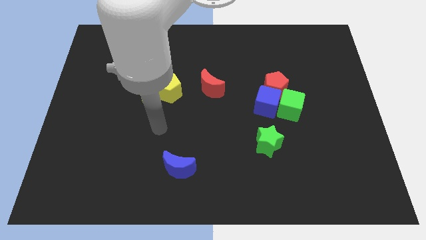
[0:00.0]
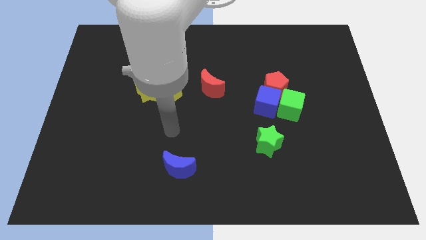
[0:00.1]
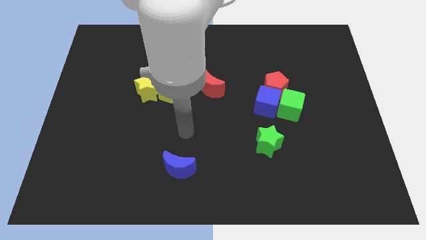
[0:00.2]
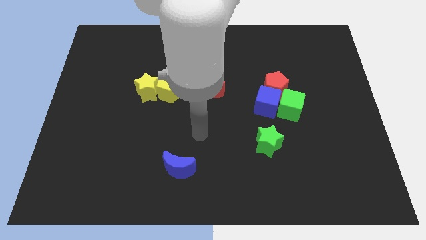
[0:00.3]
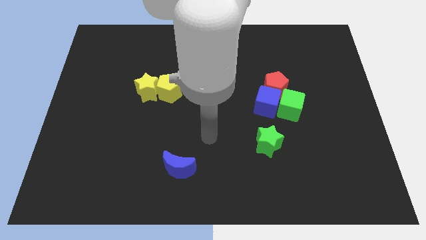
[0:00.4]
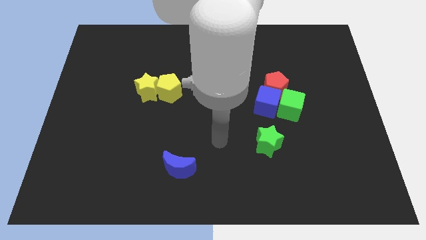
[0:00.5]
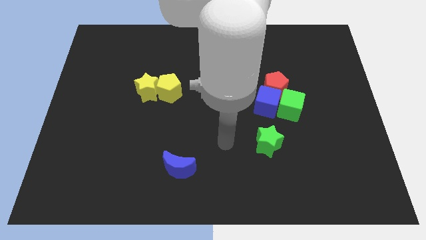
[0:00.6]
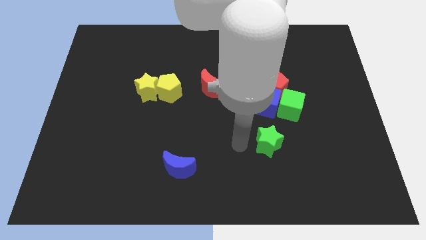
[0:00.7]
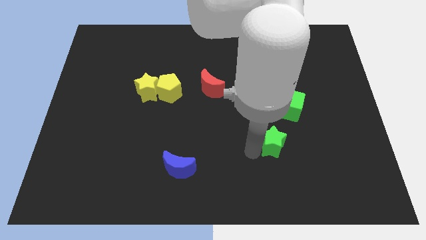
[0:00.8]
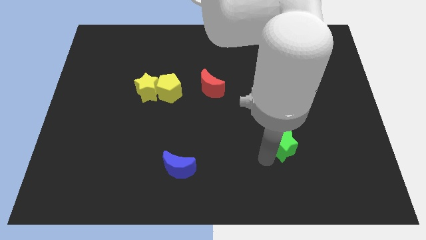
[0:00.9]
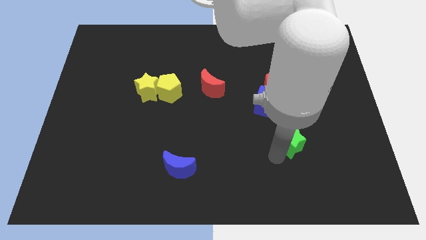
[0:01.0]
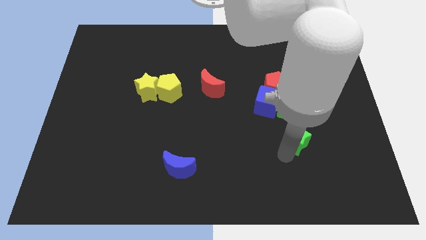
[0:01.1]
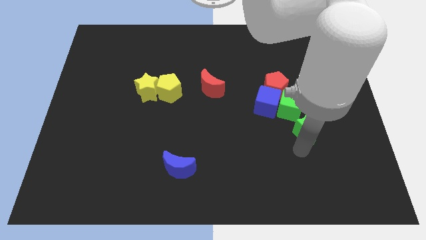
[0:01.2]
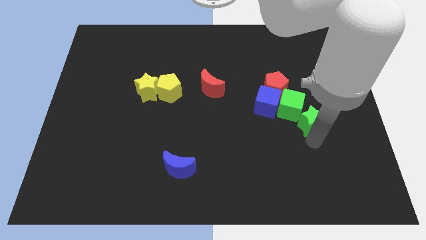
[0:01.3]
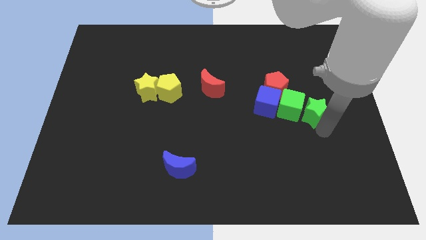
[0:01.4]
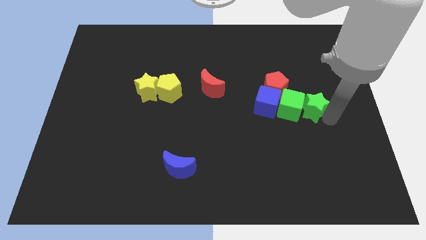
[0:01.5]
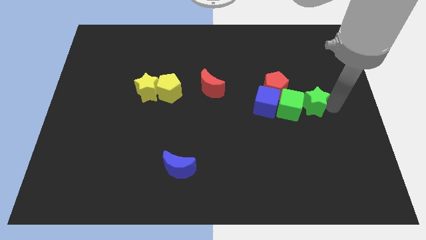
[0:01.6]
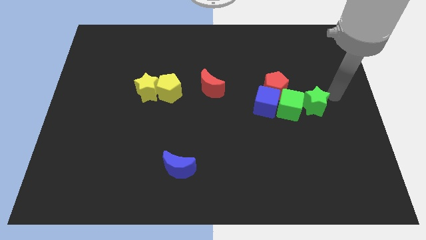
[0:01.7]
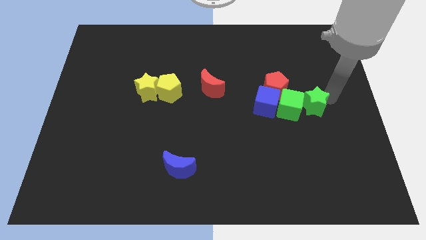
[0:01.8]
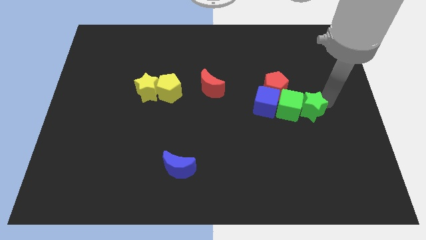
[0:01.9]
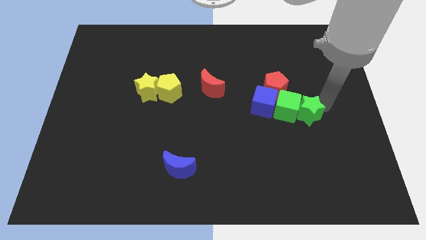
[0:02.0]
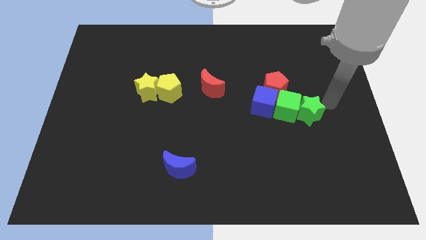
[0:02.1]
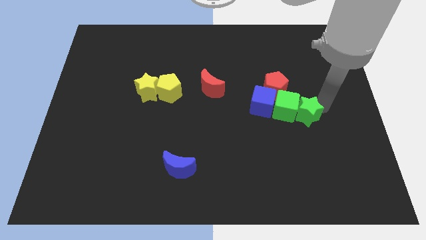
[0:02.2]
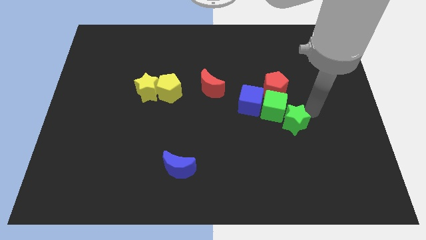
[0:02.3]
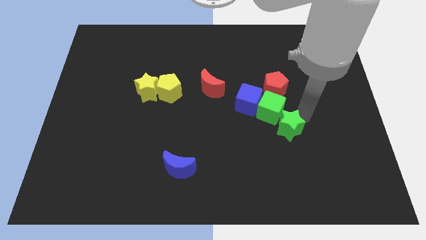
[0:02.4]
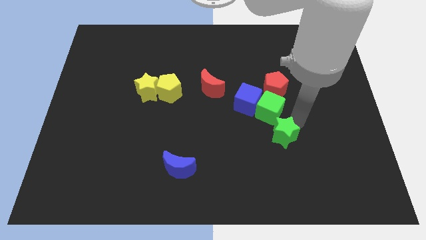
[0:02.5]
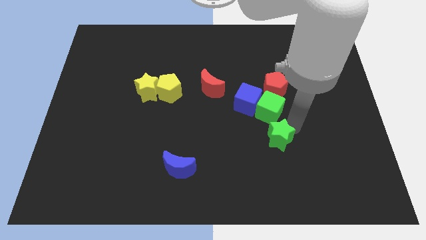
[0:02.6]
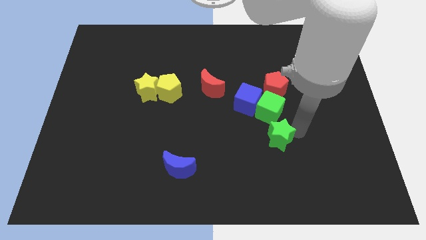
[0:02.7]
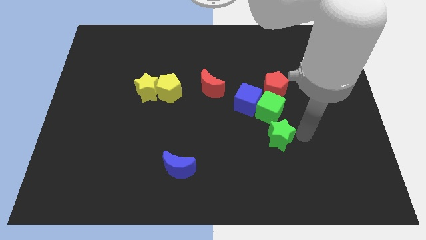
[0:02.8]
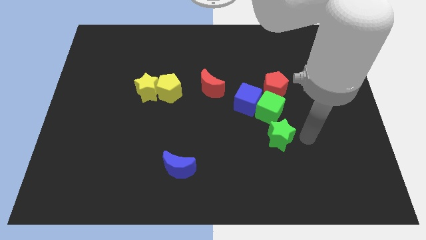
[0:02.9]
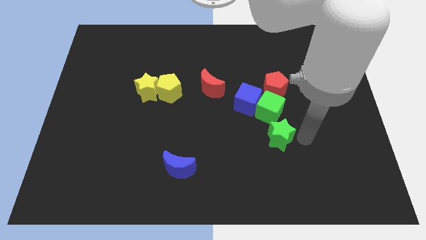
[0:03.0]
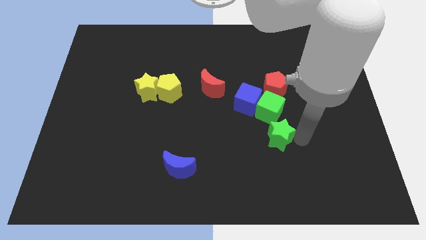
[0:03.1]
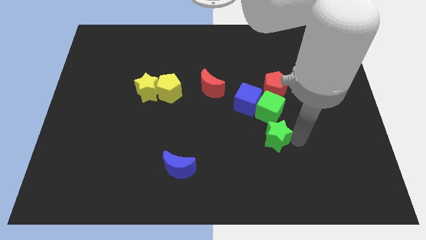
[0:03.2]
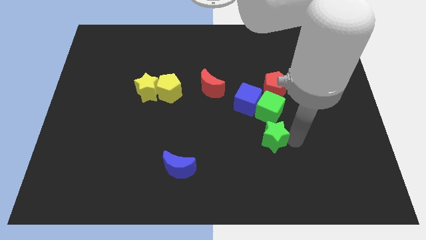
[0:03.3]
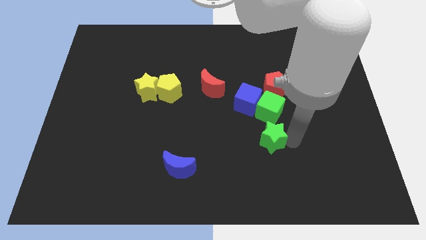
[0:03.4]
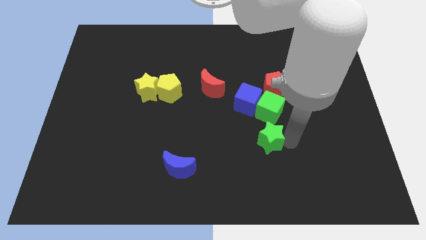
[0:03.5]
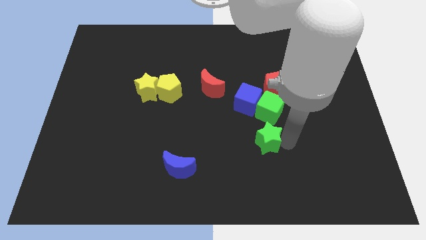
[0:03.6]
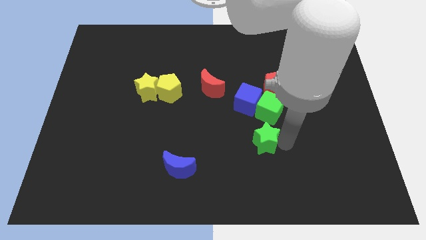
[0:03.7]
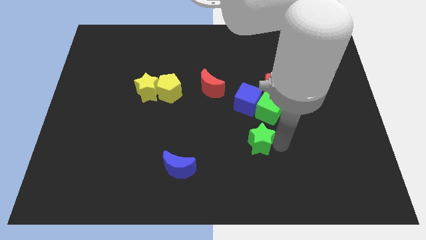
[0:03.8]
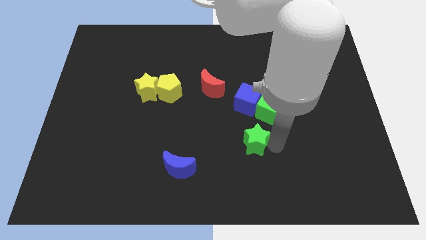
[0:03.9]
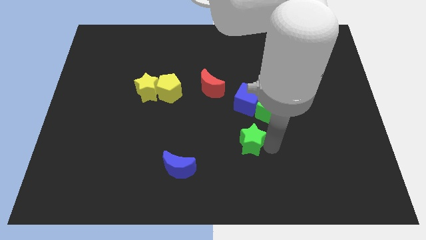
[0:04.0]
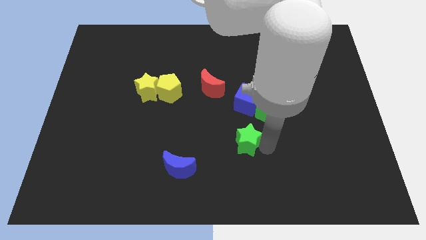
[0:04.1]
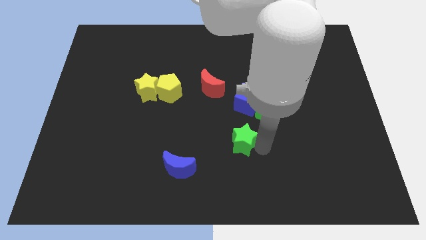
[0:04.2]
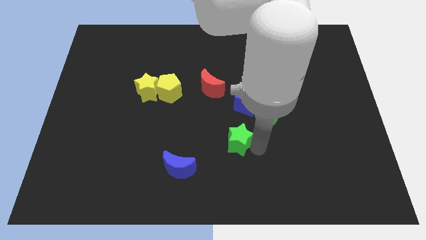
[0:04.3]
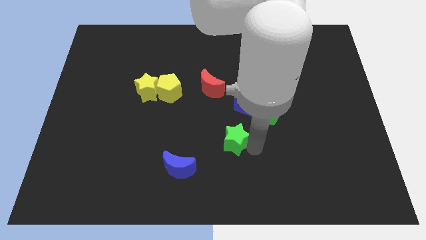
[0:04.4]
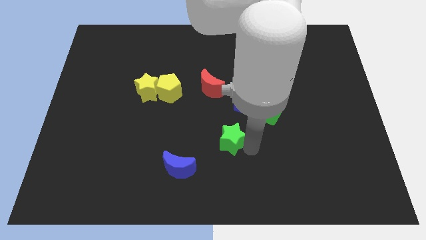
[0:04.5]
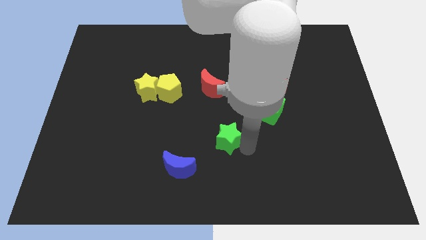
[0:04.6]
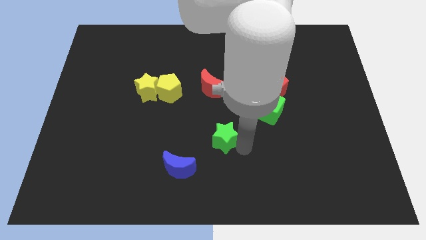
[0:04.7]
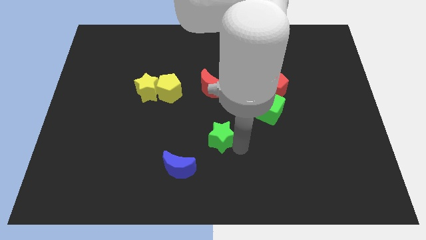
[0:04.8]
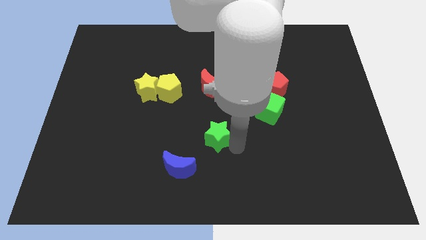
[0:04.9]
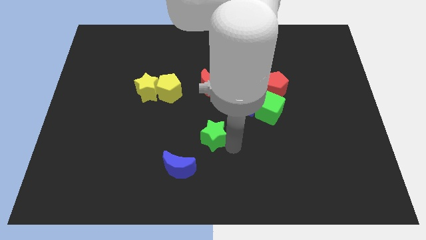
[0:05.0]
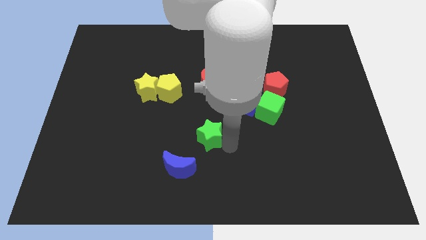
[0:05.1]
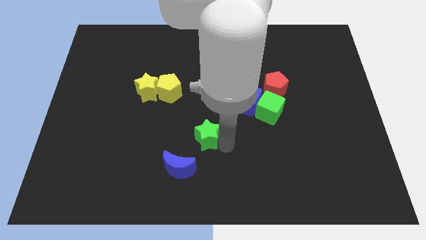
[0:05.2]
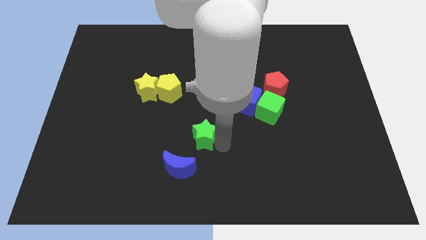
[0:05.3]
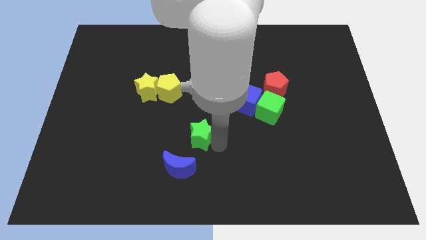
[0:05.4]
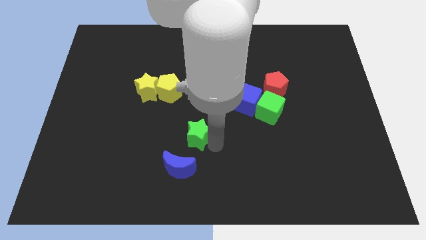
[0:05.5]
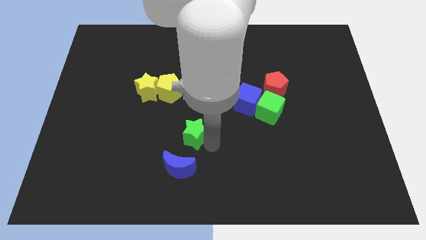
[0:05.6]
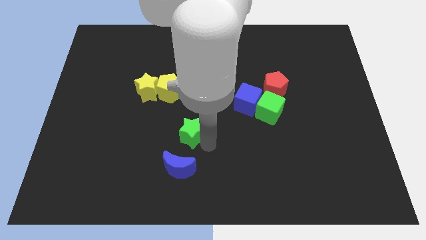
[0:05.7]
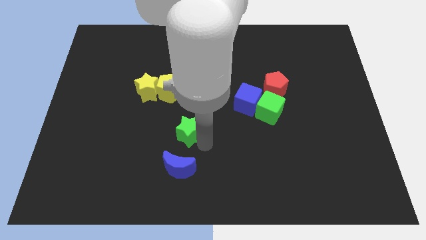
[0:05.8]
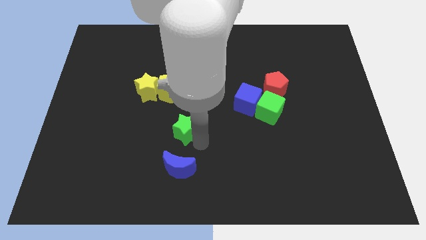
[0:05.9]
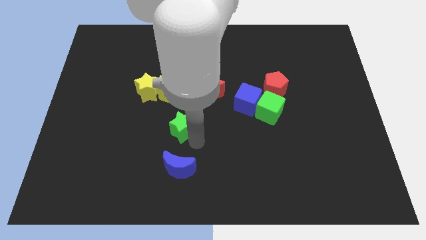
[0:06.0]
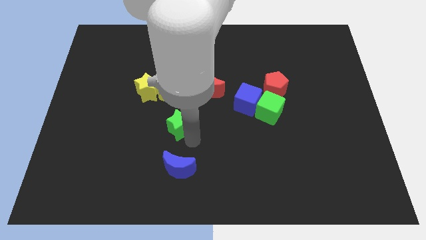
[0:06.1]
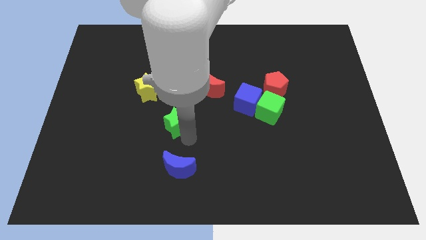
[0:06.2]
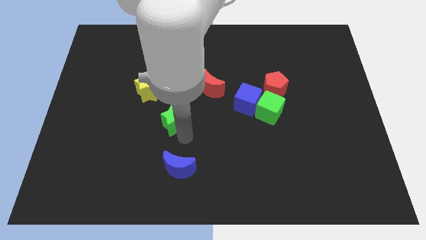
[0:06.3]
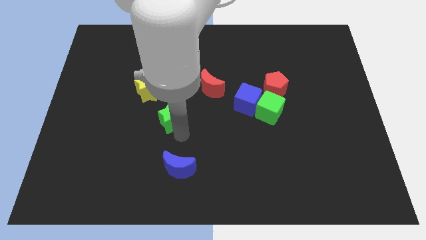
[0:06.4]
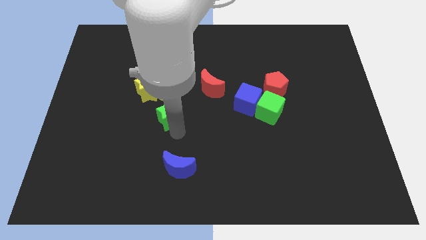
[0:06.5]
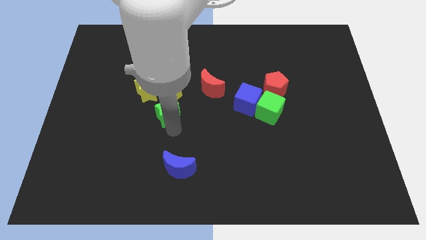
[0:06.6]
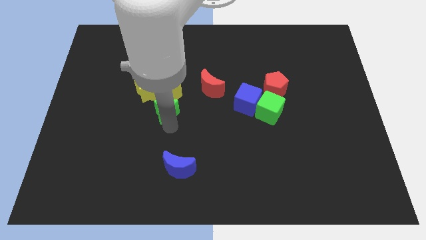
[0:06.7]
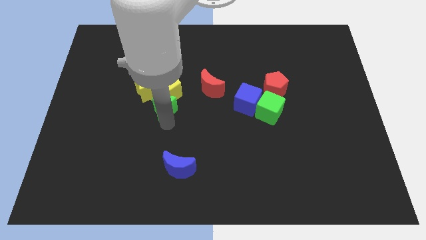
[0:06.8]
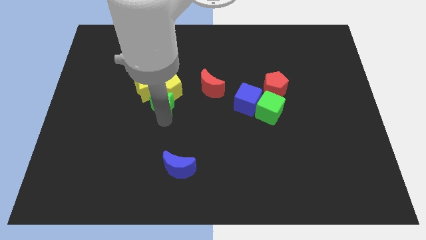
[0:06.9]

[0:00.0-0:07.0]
move the green star diagonally up and left

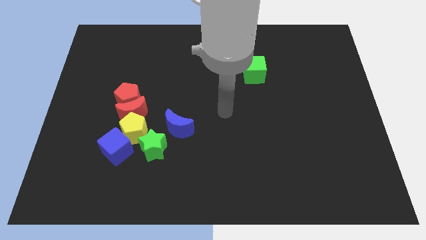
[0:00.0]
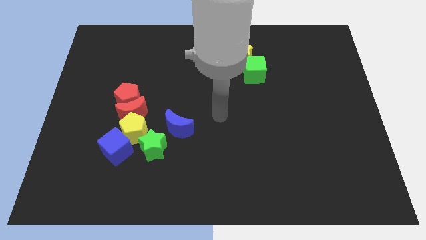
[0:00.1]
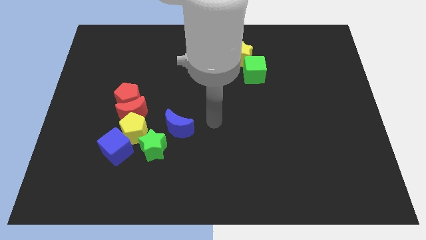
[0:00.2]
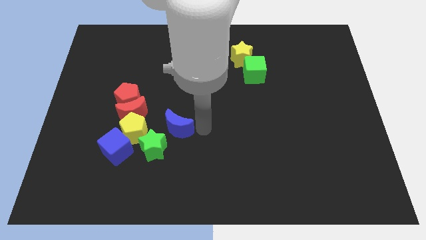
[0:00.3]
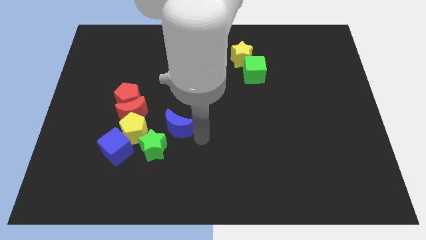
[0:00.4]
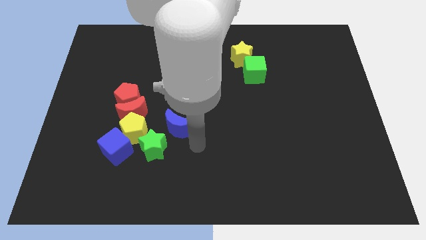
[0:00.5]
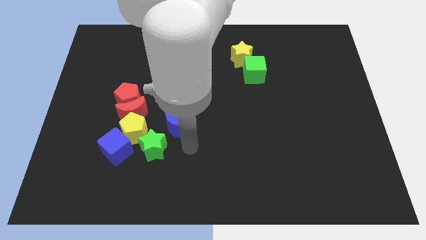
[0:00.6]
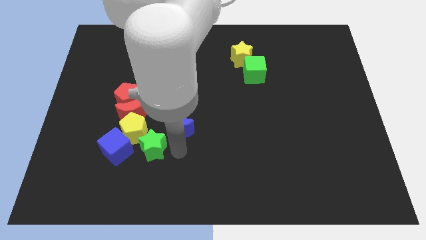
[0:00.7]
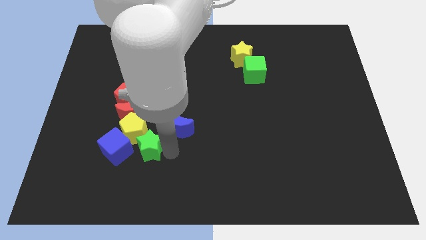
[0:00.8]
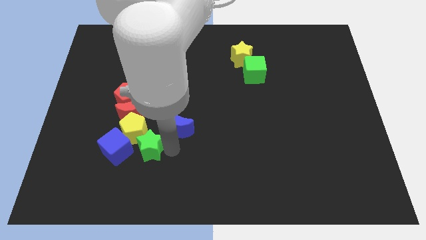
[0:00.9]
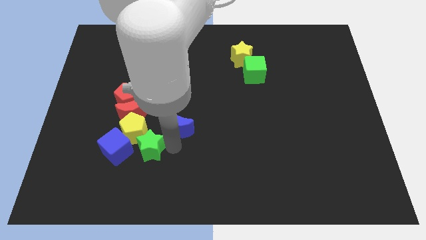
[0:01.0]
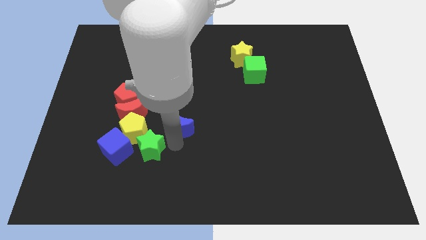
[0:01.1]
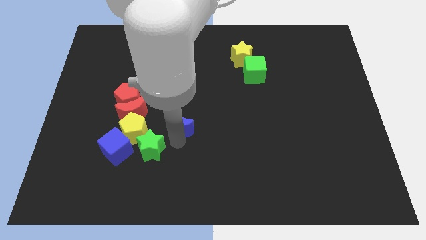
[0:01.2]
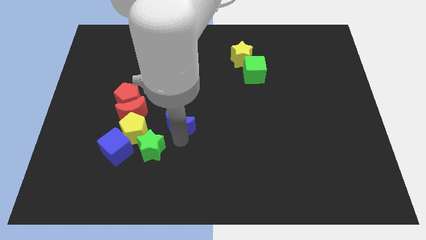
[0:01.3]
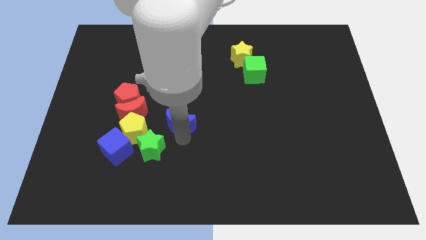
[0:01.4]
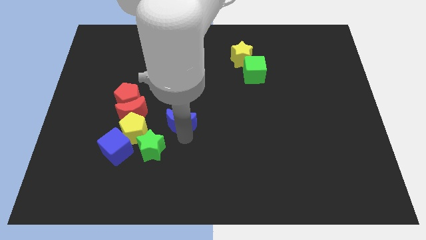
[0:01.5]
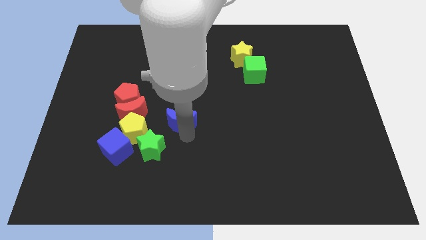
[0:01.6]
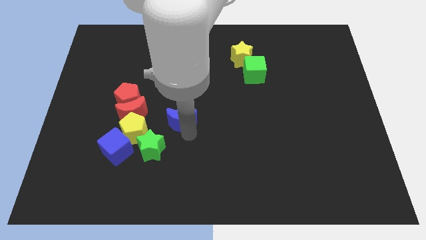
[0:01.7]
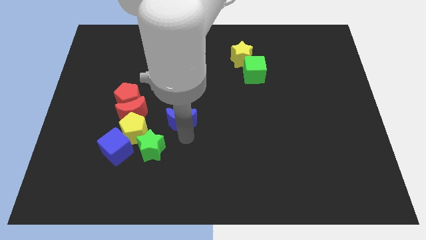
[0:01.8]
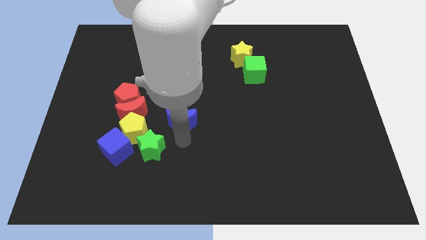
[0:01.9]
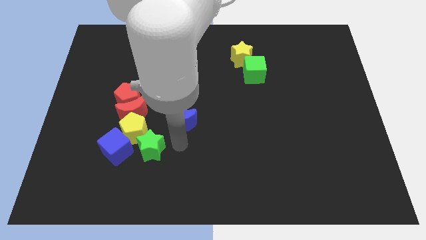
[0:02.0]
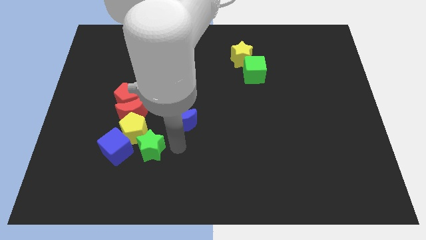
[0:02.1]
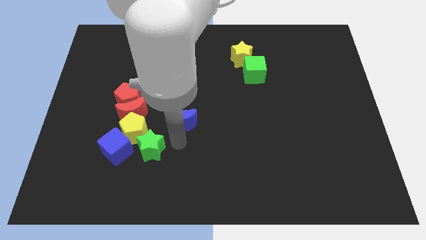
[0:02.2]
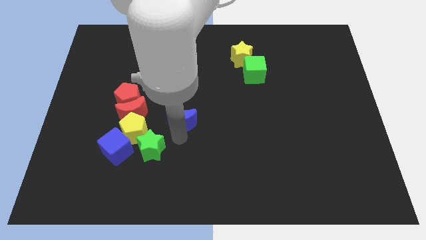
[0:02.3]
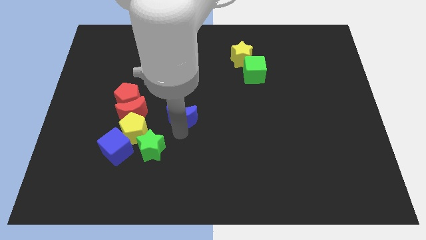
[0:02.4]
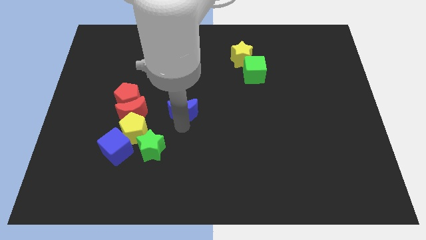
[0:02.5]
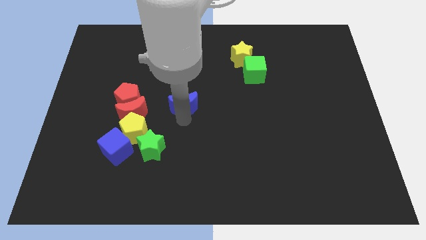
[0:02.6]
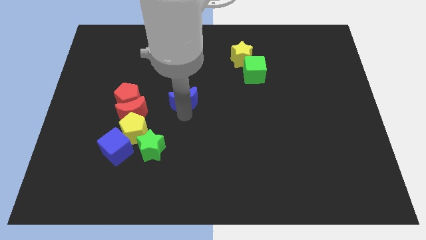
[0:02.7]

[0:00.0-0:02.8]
move the blue moon up a bit
